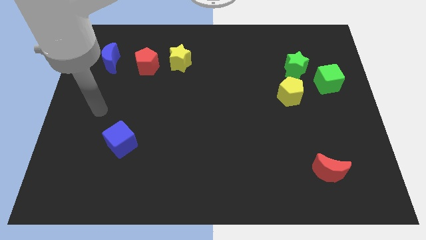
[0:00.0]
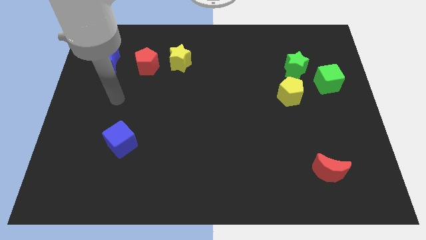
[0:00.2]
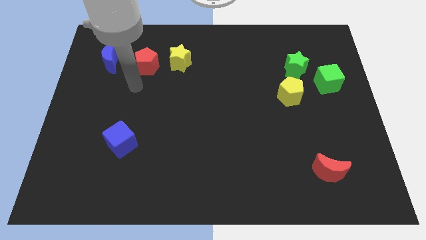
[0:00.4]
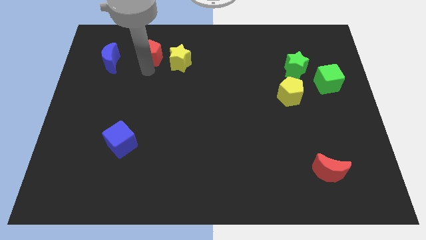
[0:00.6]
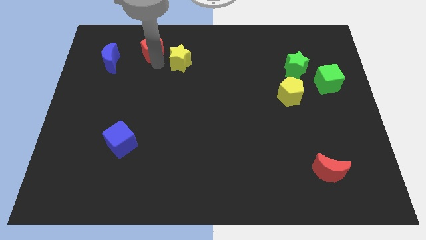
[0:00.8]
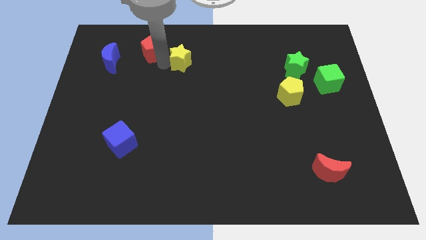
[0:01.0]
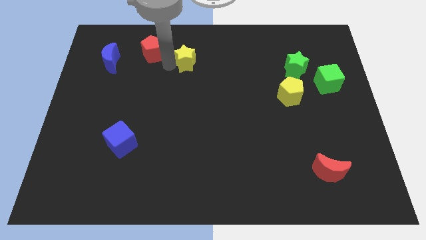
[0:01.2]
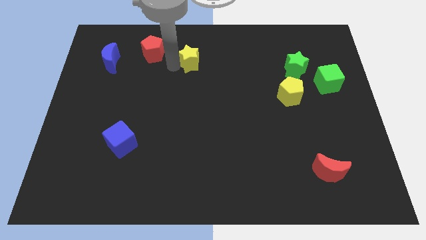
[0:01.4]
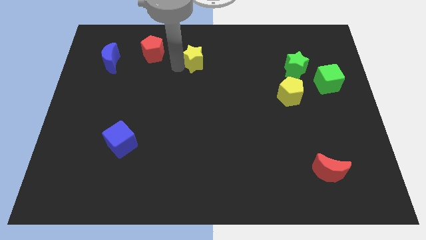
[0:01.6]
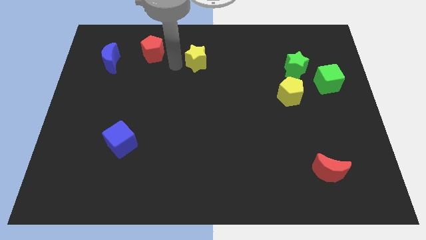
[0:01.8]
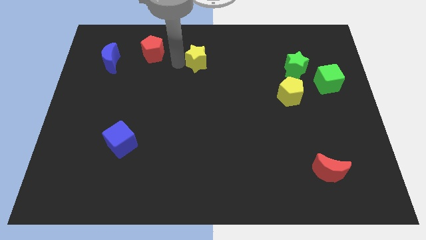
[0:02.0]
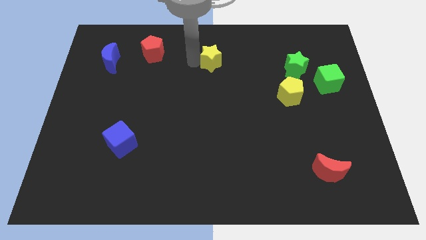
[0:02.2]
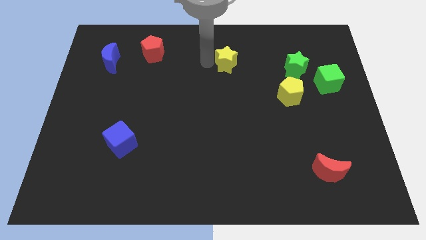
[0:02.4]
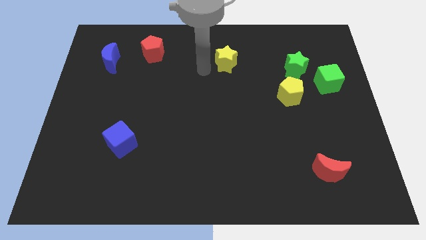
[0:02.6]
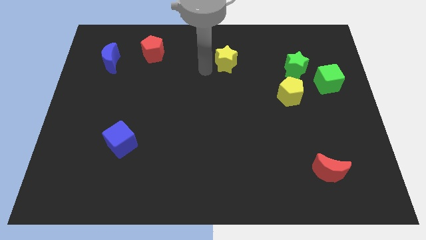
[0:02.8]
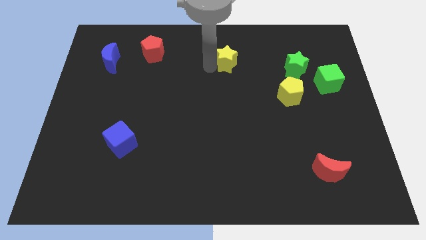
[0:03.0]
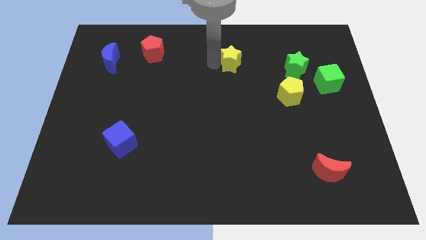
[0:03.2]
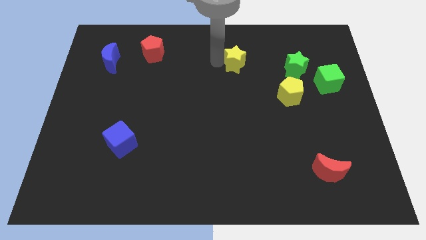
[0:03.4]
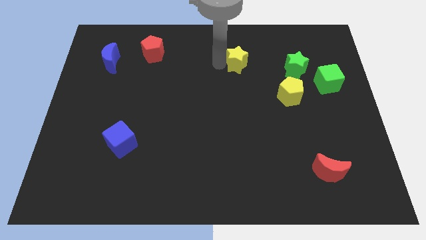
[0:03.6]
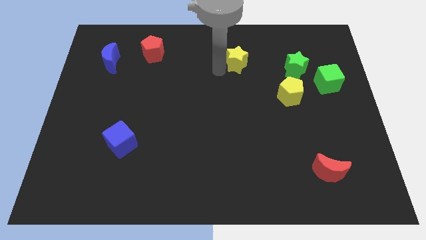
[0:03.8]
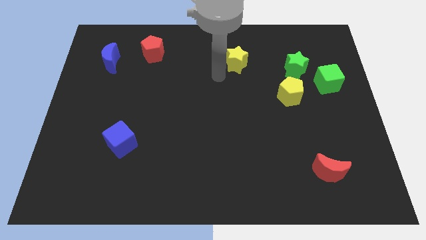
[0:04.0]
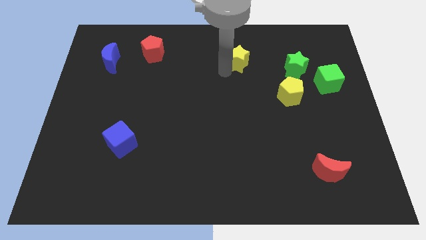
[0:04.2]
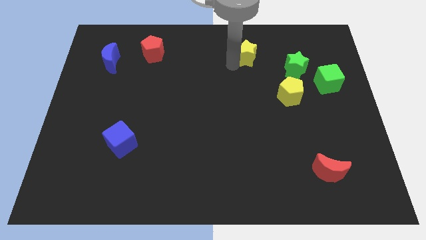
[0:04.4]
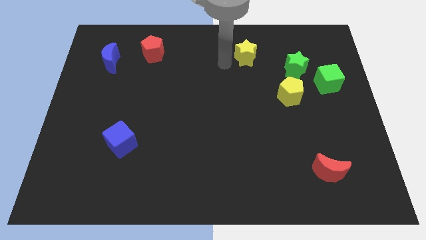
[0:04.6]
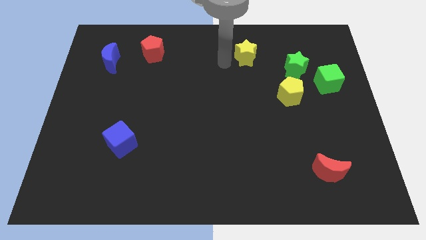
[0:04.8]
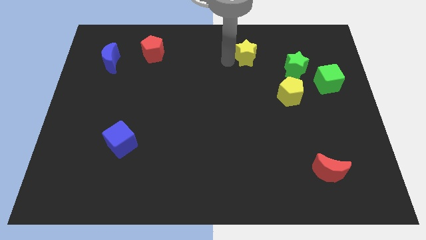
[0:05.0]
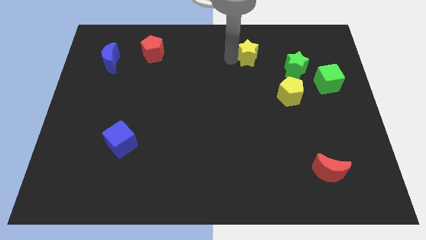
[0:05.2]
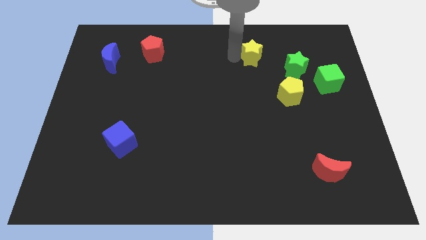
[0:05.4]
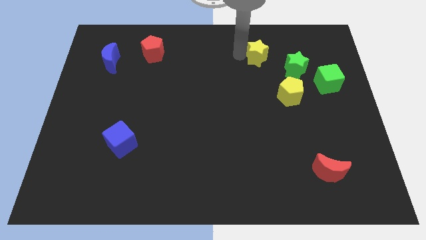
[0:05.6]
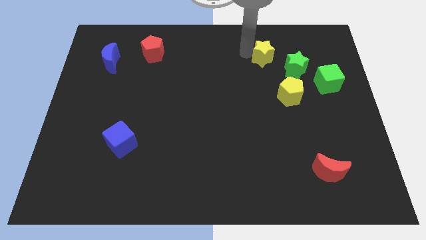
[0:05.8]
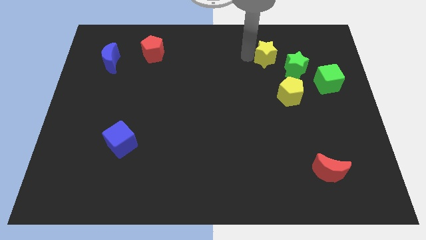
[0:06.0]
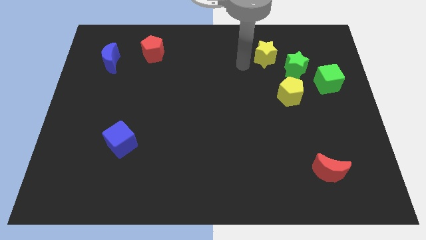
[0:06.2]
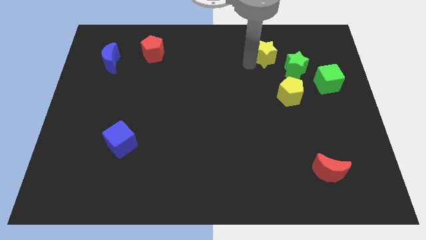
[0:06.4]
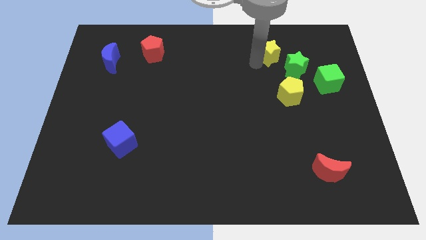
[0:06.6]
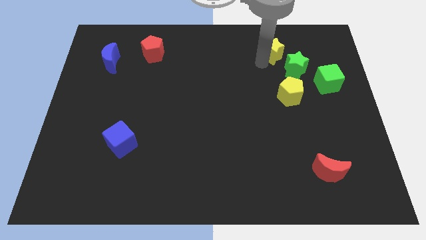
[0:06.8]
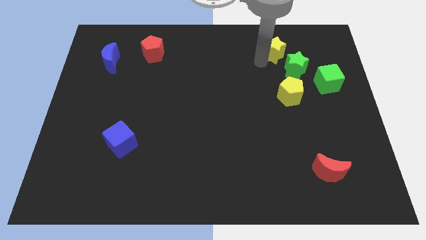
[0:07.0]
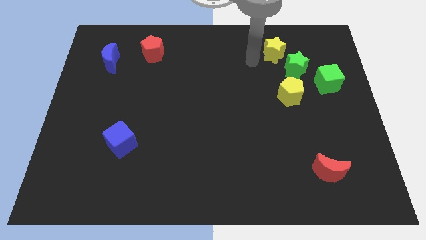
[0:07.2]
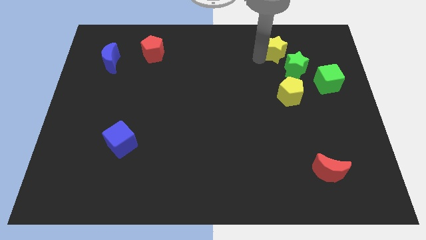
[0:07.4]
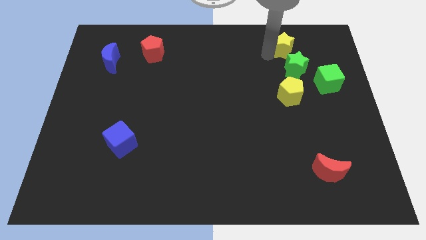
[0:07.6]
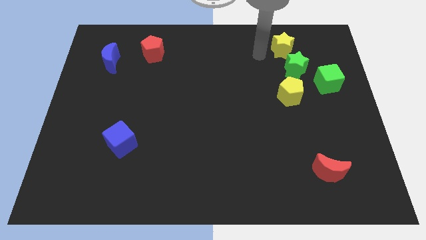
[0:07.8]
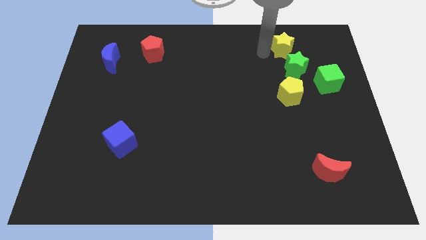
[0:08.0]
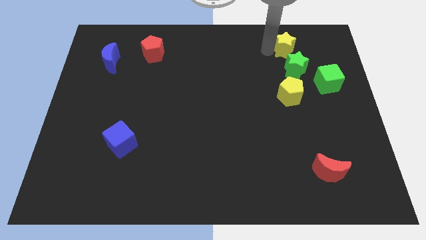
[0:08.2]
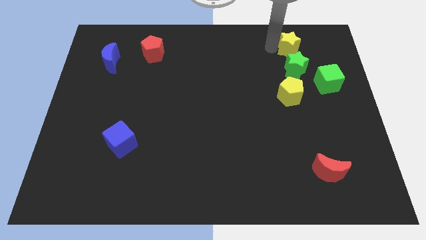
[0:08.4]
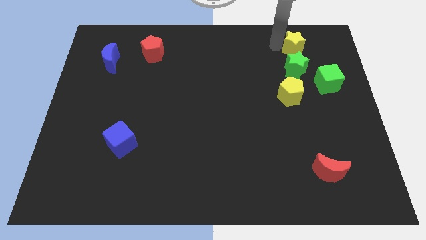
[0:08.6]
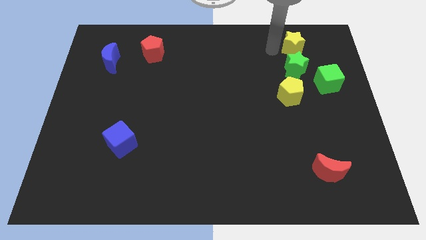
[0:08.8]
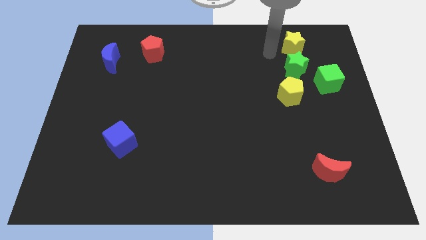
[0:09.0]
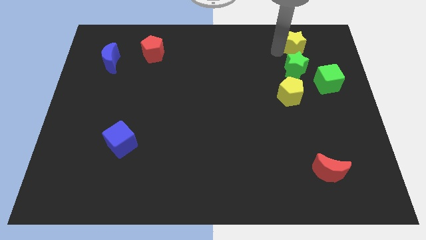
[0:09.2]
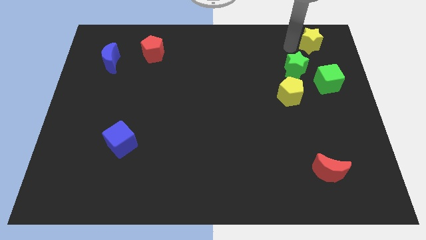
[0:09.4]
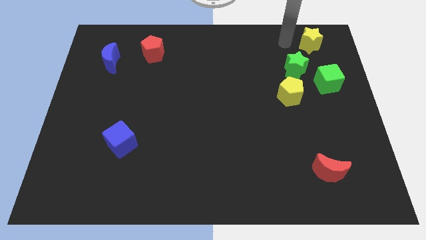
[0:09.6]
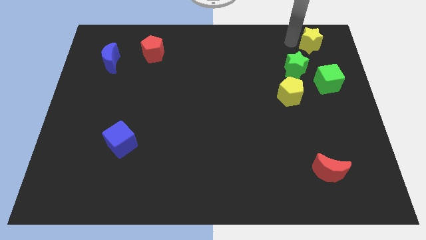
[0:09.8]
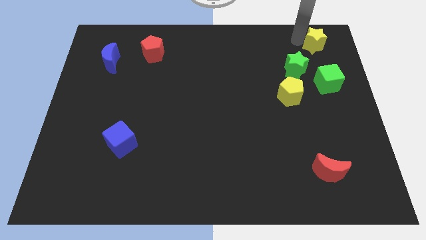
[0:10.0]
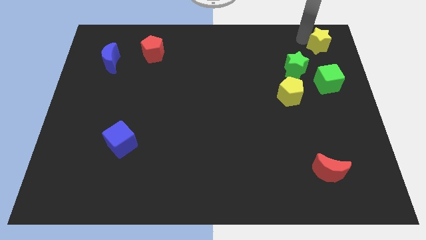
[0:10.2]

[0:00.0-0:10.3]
move the yellow star to the top right

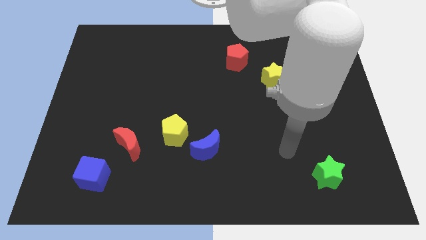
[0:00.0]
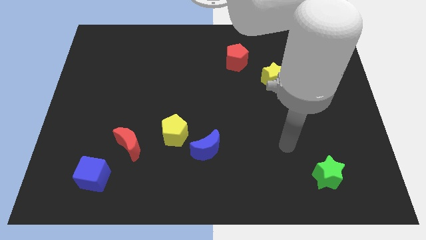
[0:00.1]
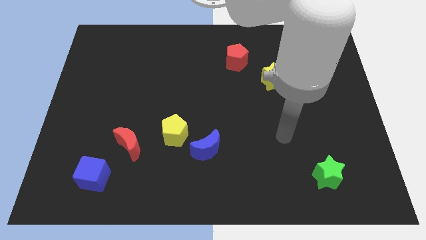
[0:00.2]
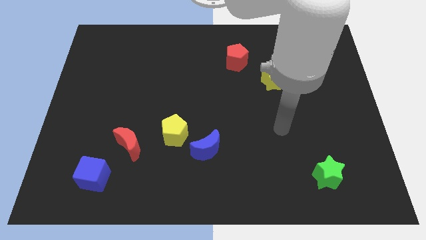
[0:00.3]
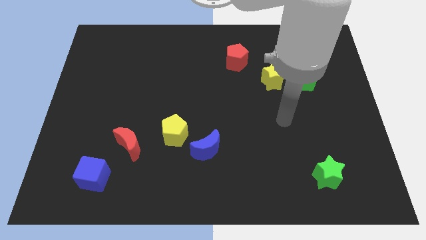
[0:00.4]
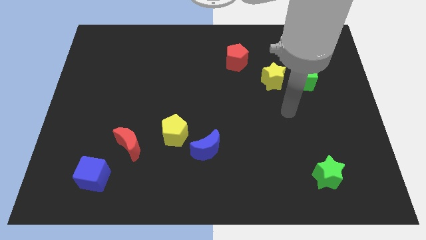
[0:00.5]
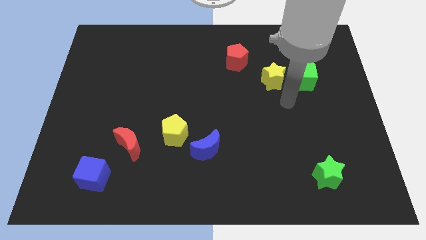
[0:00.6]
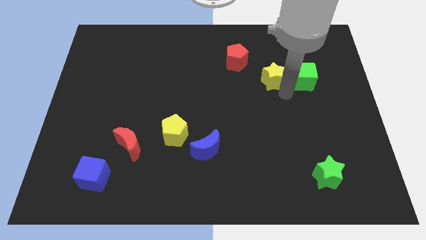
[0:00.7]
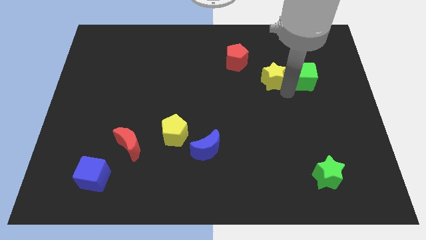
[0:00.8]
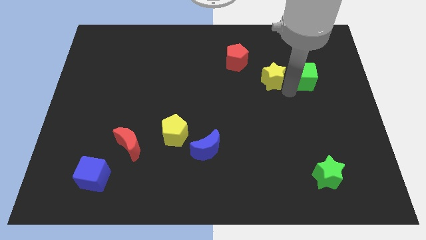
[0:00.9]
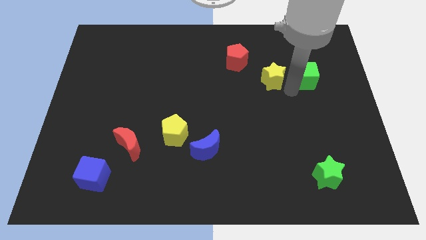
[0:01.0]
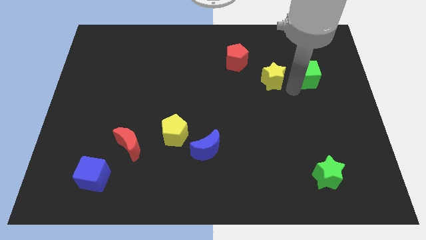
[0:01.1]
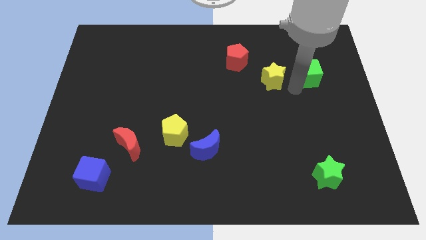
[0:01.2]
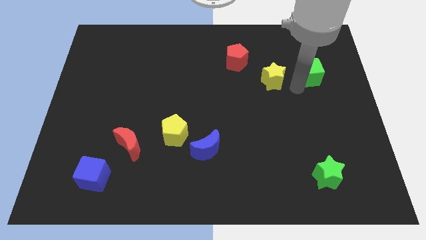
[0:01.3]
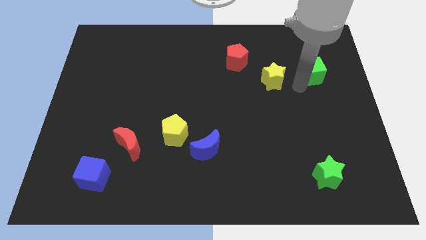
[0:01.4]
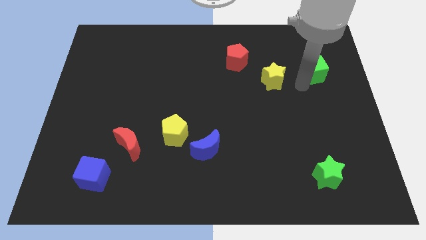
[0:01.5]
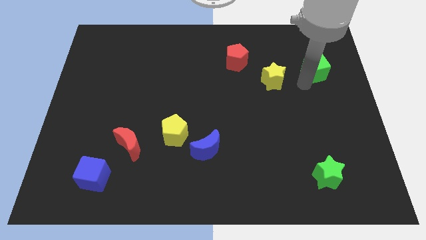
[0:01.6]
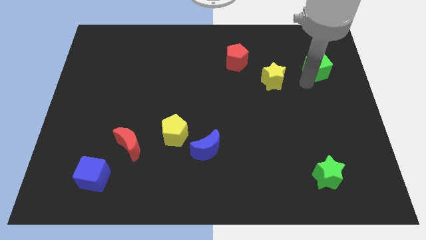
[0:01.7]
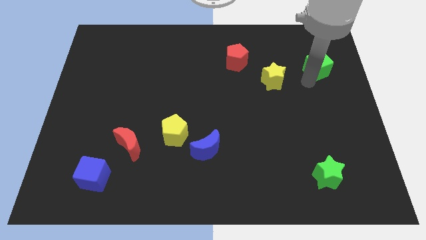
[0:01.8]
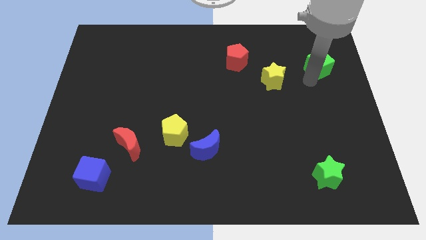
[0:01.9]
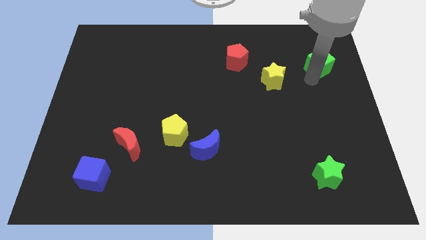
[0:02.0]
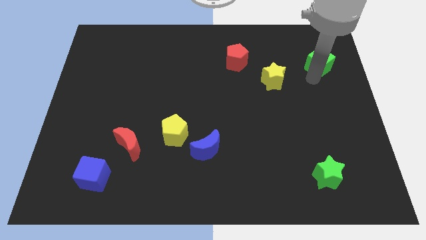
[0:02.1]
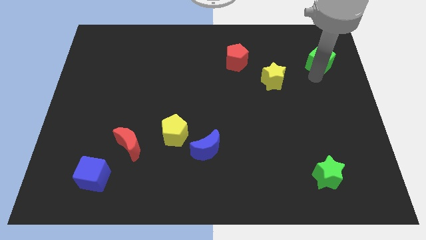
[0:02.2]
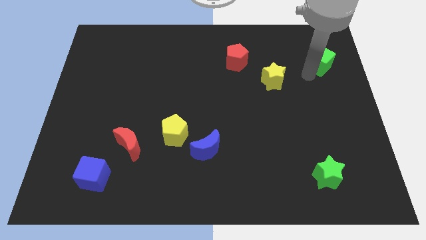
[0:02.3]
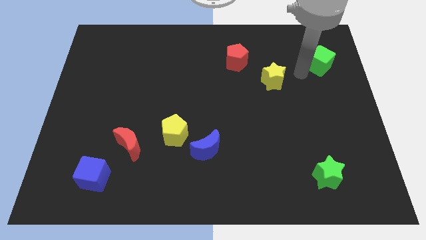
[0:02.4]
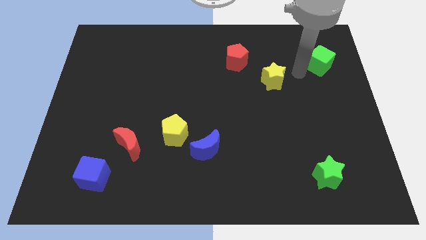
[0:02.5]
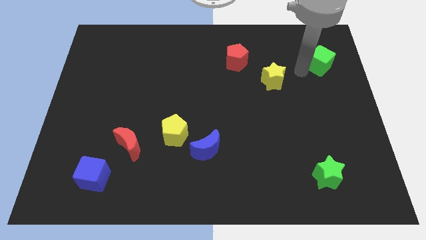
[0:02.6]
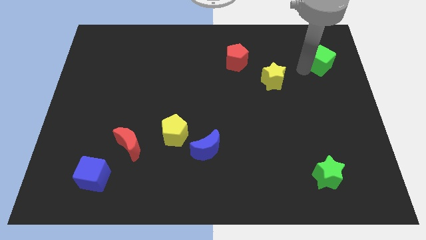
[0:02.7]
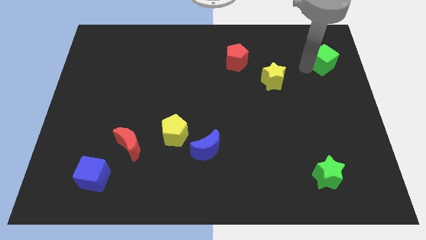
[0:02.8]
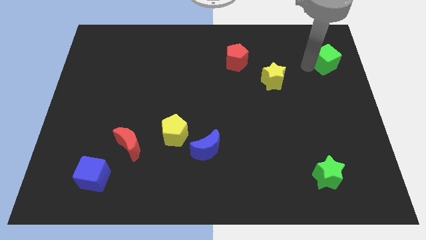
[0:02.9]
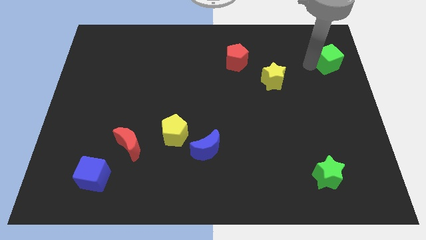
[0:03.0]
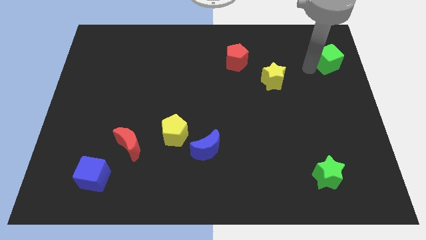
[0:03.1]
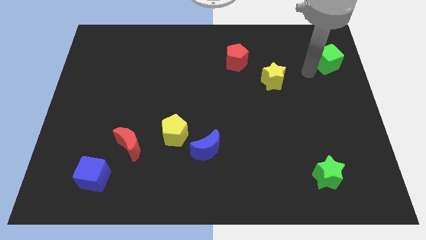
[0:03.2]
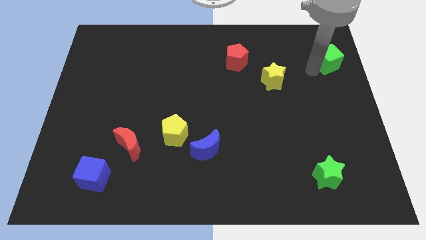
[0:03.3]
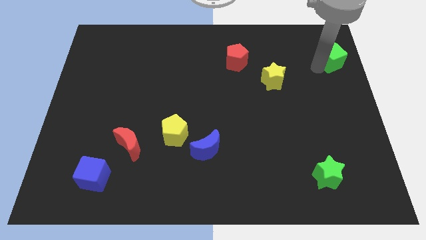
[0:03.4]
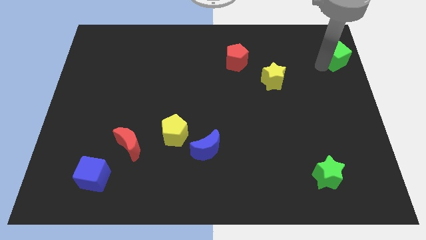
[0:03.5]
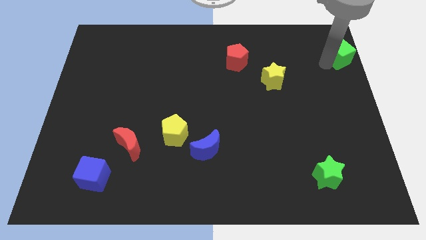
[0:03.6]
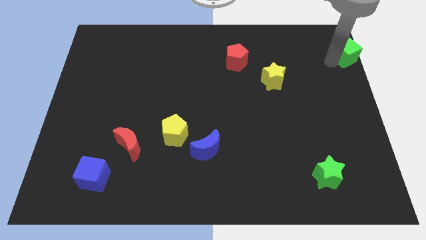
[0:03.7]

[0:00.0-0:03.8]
slide the green cube to the top right of the board
